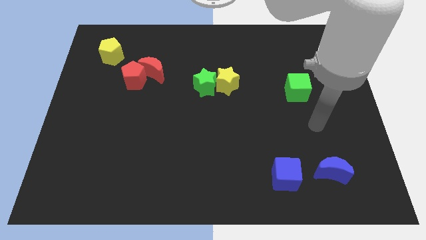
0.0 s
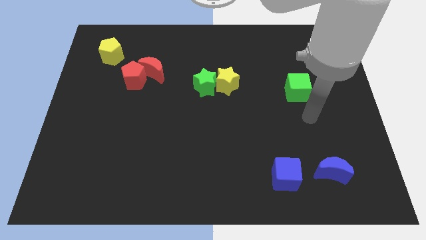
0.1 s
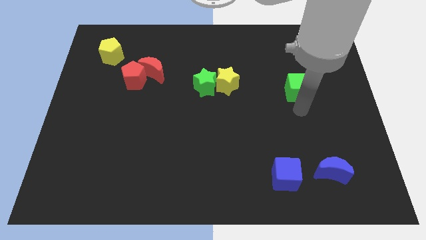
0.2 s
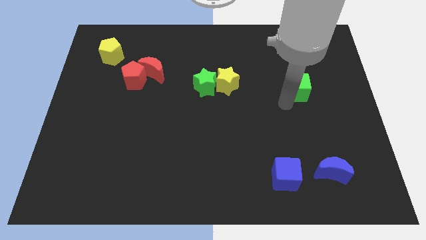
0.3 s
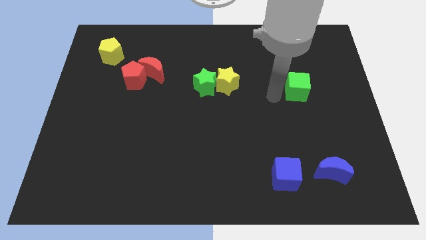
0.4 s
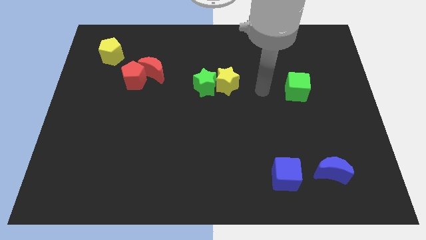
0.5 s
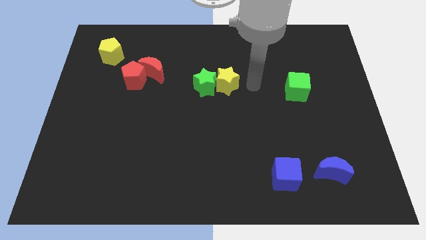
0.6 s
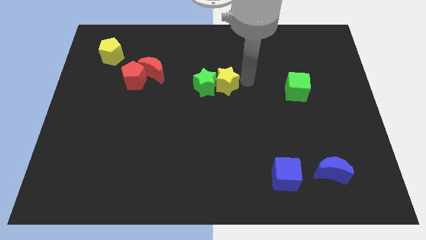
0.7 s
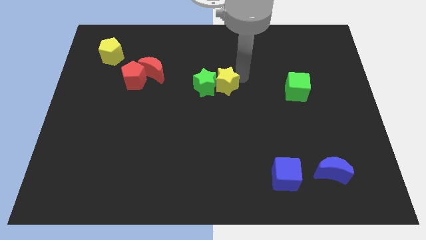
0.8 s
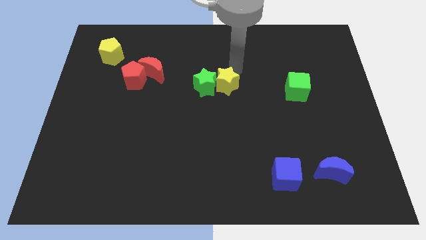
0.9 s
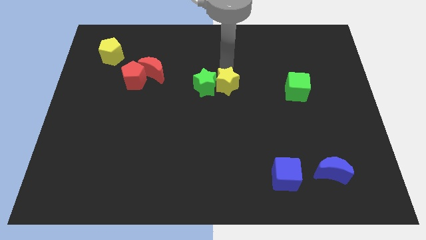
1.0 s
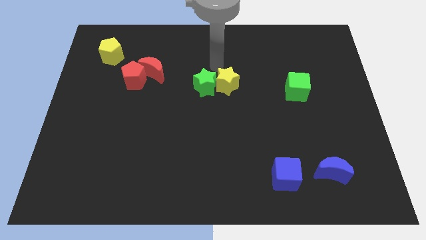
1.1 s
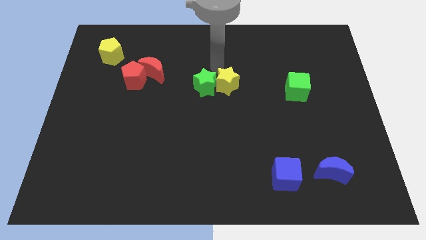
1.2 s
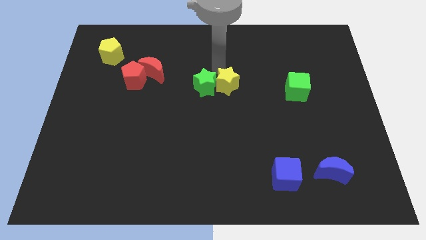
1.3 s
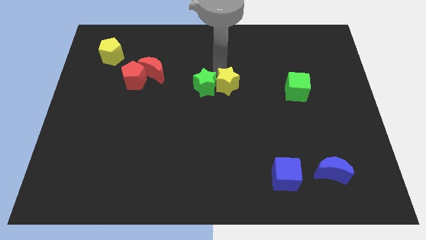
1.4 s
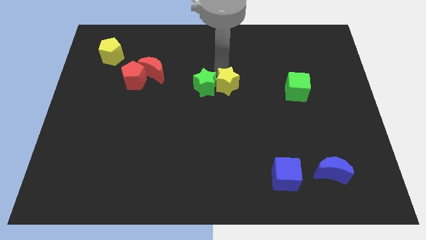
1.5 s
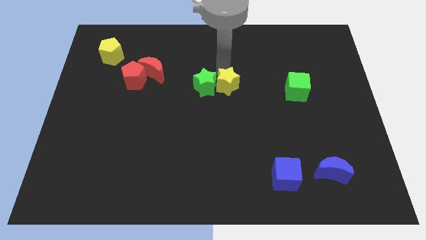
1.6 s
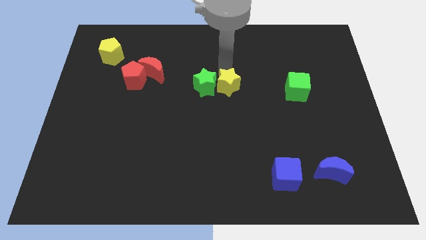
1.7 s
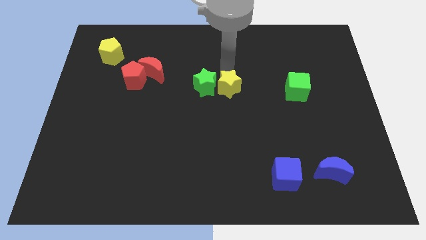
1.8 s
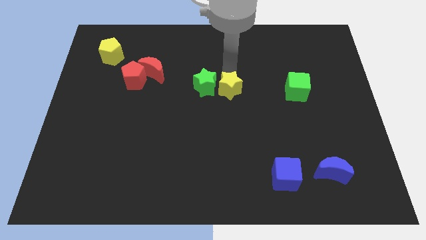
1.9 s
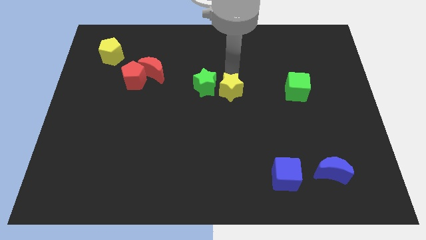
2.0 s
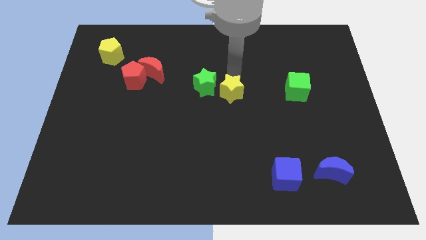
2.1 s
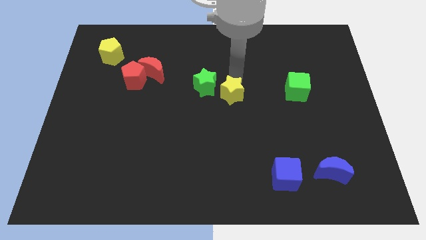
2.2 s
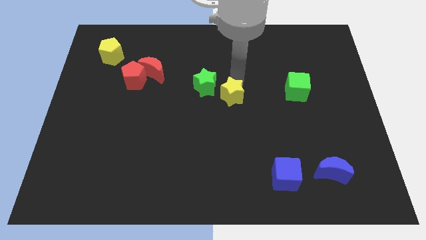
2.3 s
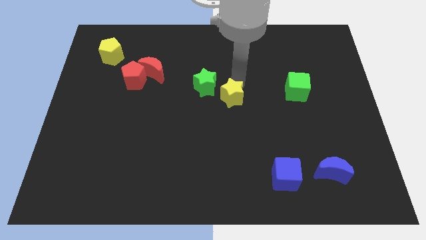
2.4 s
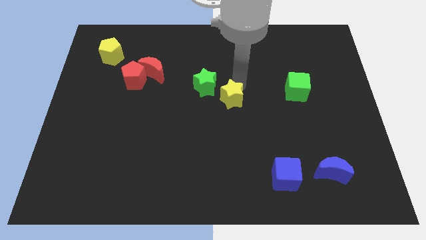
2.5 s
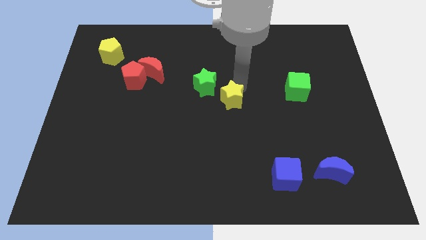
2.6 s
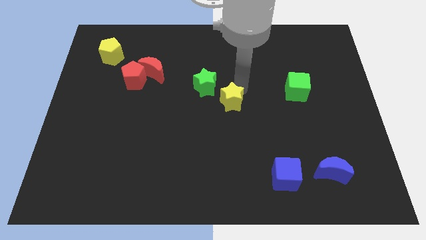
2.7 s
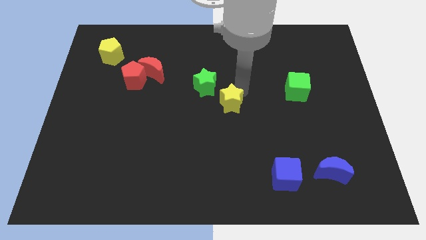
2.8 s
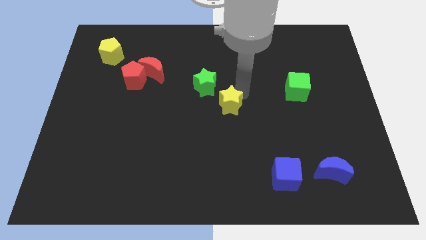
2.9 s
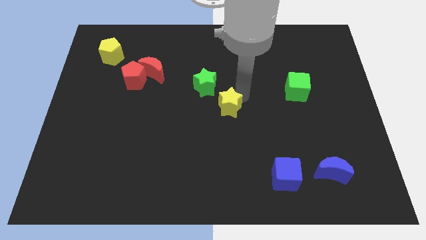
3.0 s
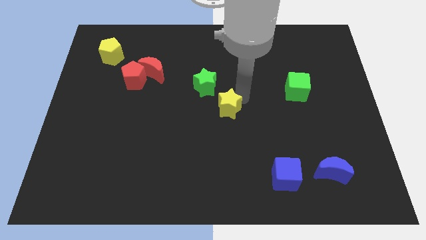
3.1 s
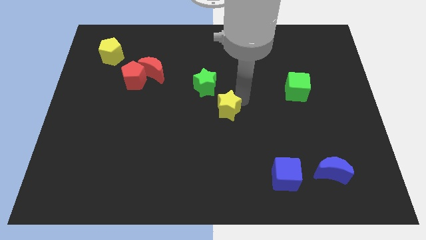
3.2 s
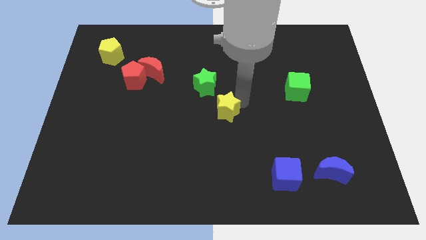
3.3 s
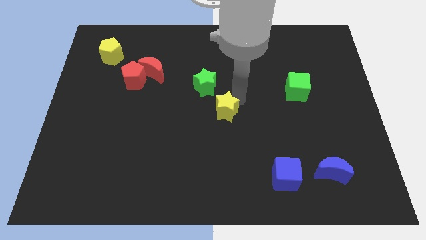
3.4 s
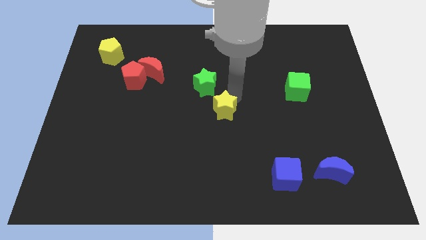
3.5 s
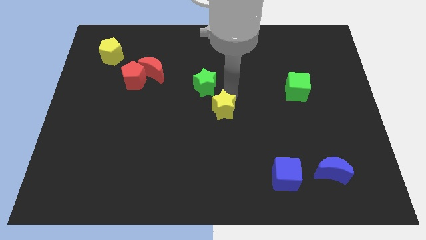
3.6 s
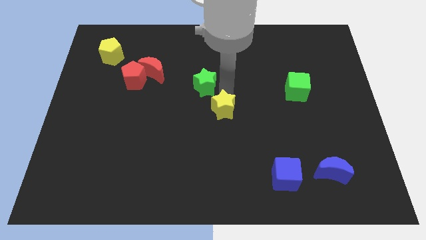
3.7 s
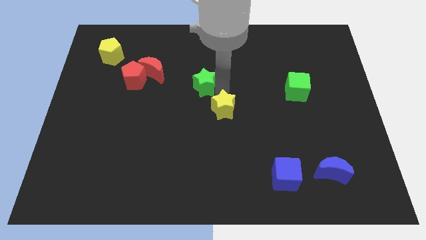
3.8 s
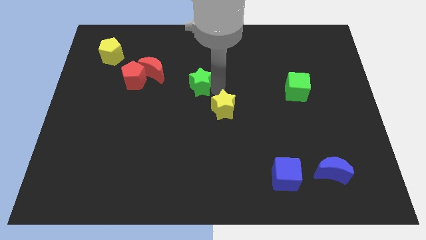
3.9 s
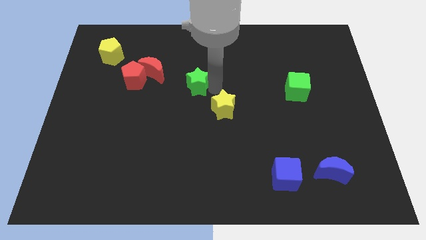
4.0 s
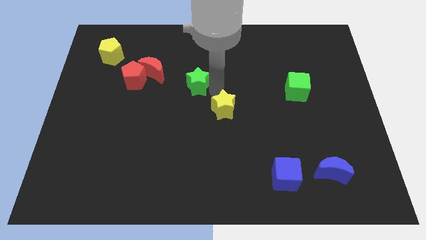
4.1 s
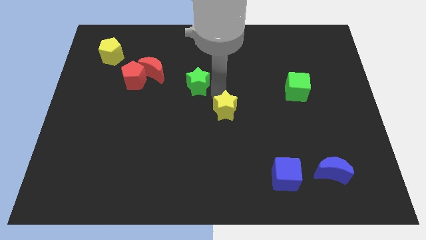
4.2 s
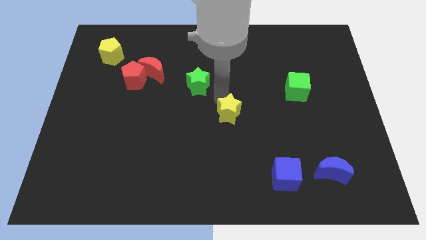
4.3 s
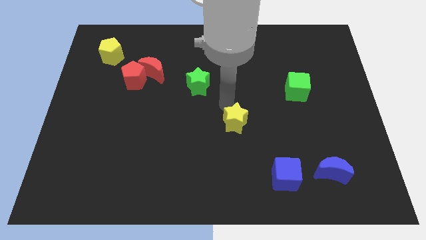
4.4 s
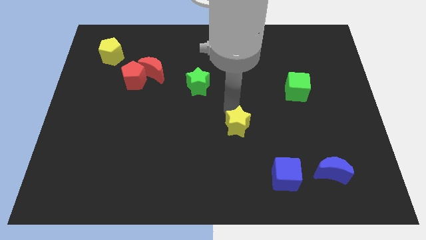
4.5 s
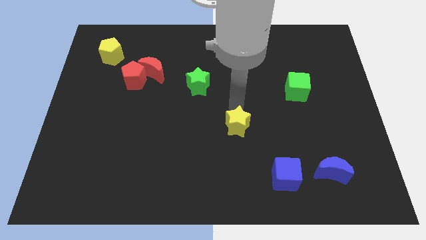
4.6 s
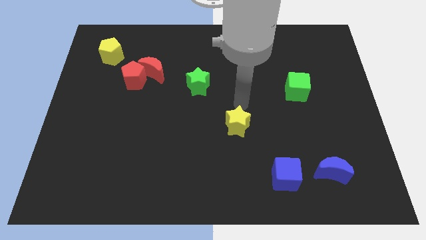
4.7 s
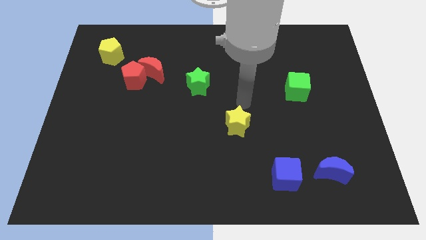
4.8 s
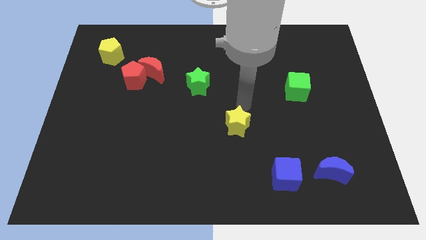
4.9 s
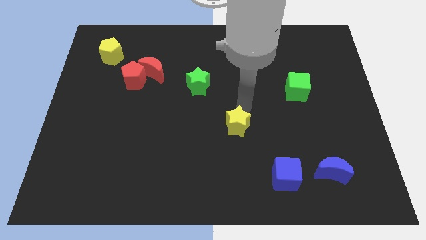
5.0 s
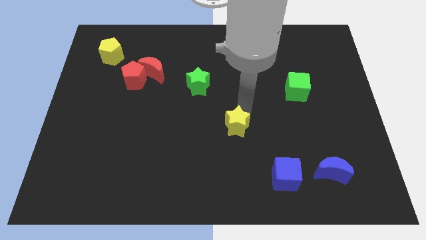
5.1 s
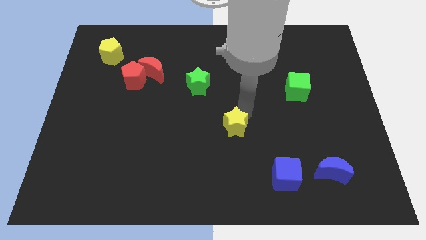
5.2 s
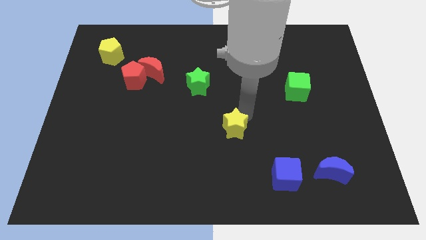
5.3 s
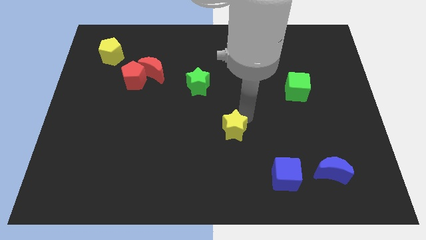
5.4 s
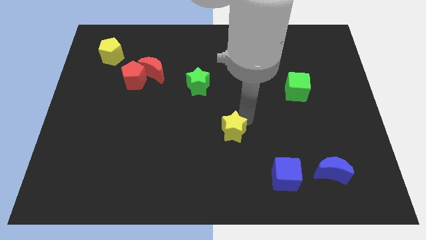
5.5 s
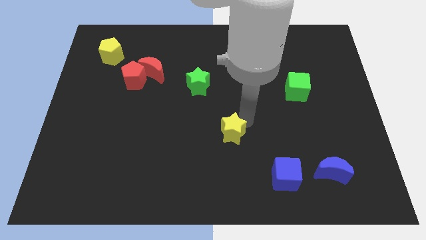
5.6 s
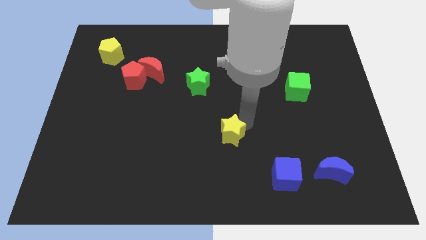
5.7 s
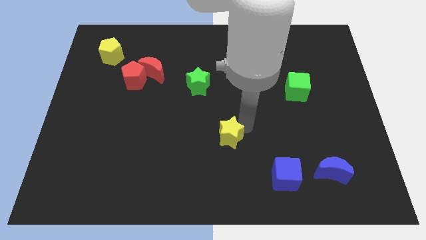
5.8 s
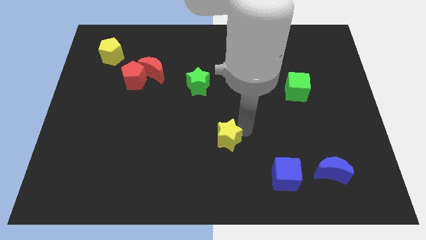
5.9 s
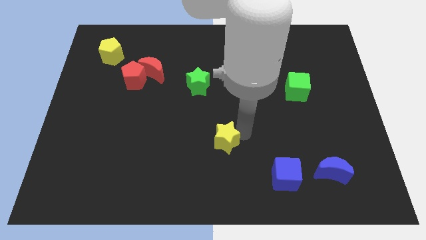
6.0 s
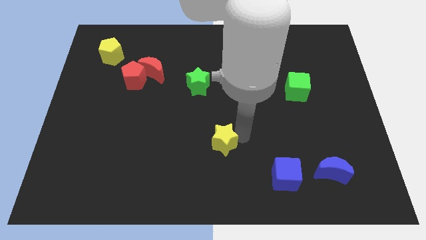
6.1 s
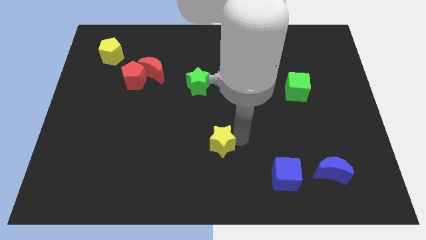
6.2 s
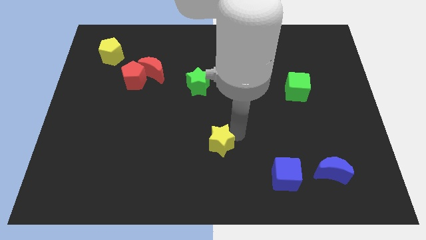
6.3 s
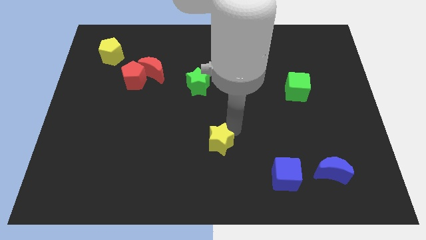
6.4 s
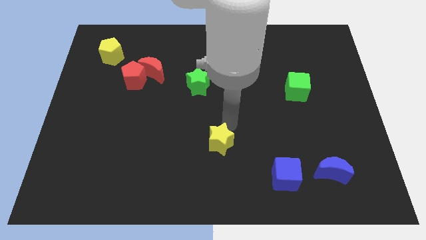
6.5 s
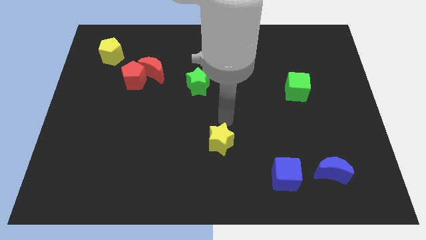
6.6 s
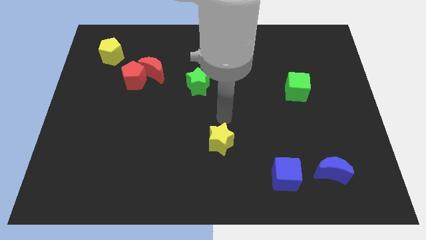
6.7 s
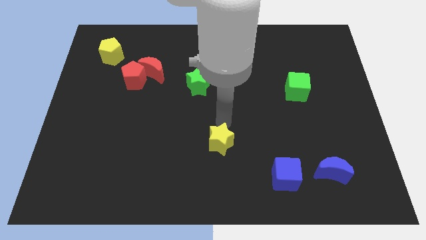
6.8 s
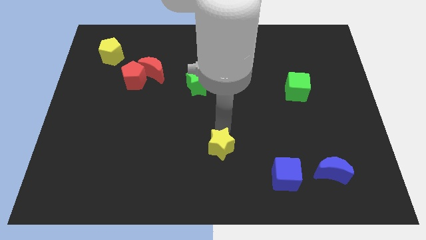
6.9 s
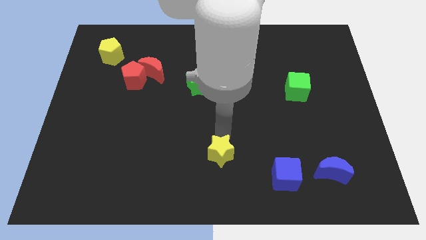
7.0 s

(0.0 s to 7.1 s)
put the yellow star to the bottom
